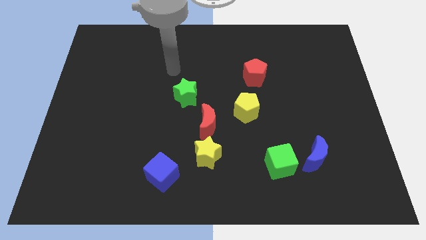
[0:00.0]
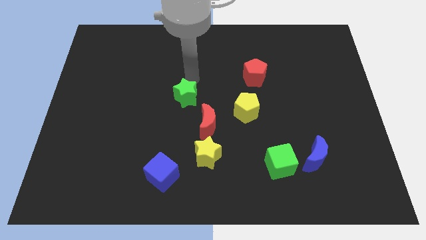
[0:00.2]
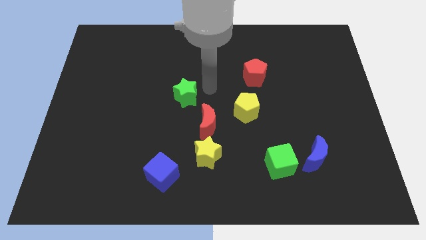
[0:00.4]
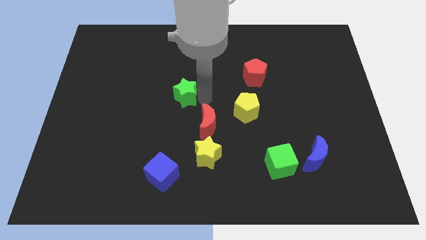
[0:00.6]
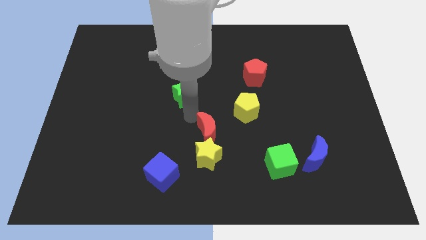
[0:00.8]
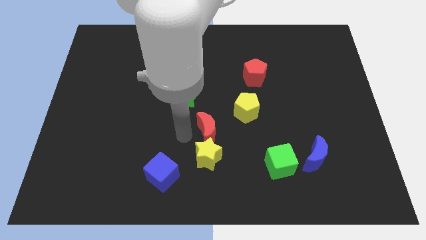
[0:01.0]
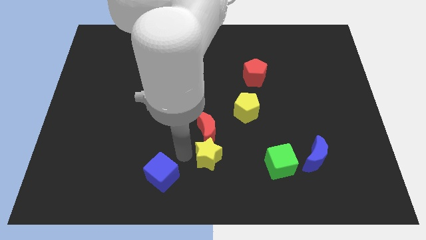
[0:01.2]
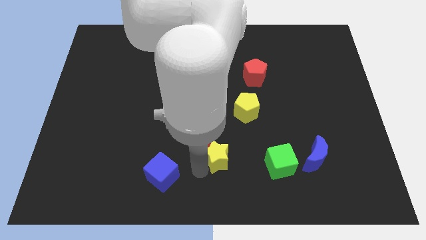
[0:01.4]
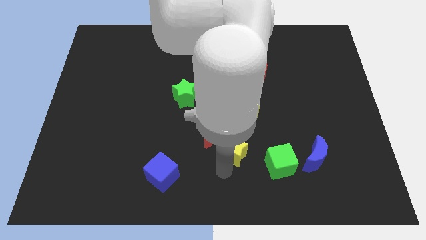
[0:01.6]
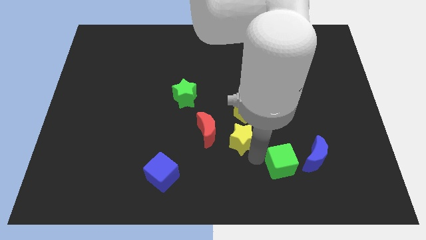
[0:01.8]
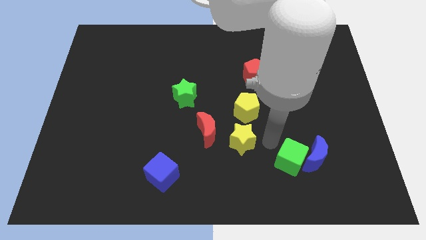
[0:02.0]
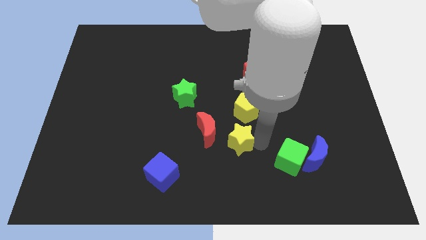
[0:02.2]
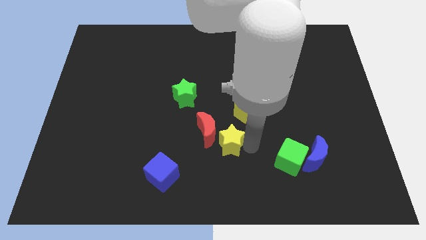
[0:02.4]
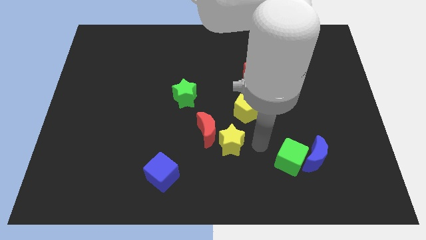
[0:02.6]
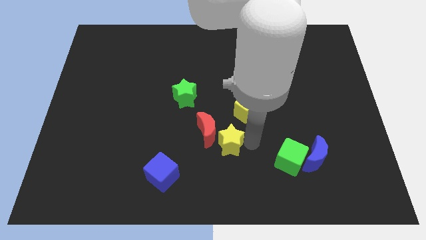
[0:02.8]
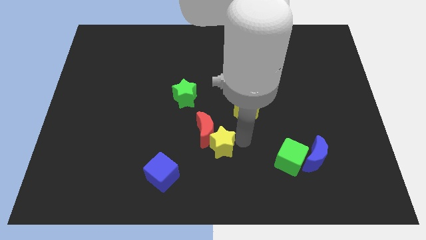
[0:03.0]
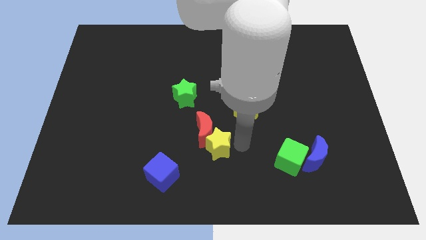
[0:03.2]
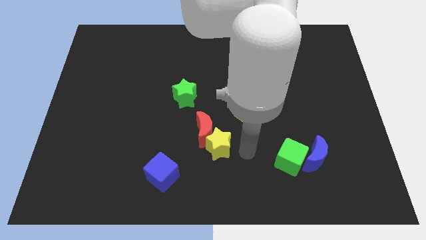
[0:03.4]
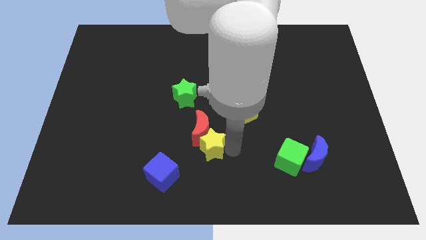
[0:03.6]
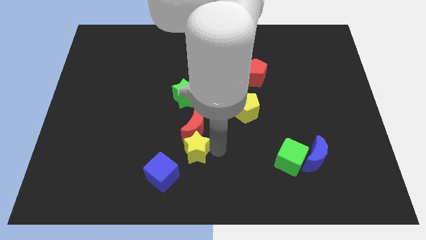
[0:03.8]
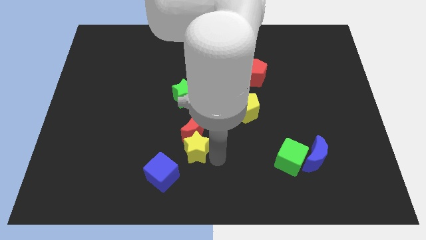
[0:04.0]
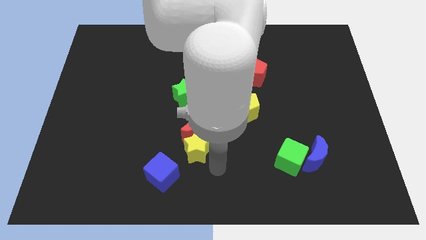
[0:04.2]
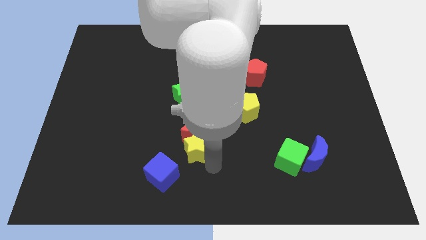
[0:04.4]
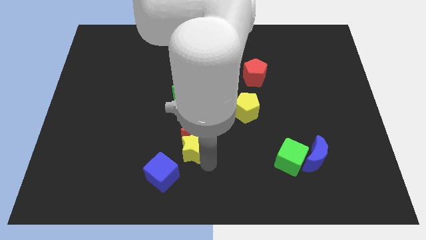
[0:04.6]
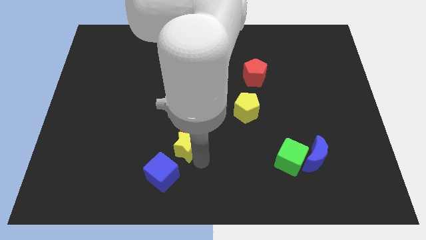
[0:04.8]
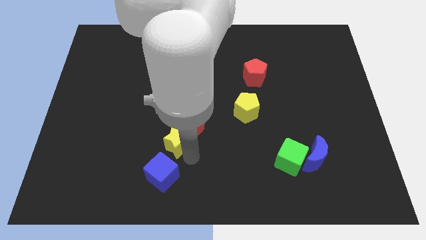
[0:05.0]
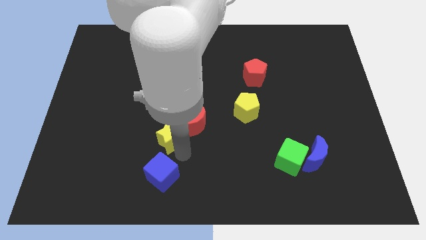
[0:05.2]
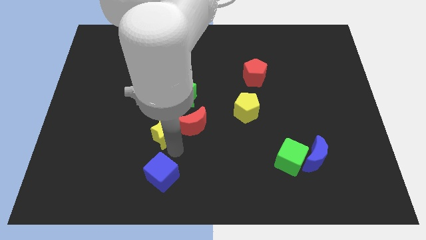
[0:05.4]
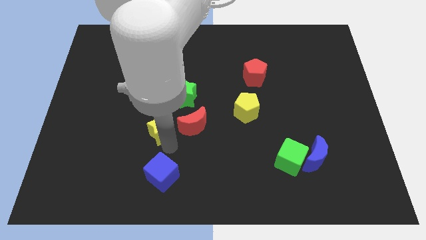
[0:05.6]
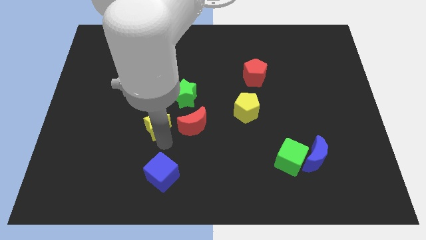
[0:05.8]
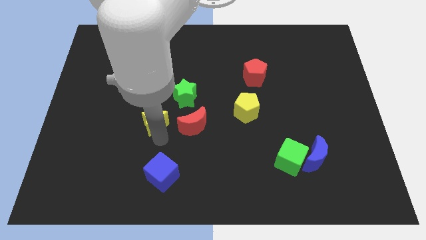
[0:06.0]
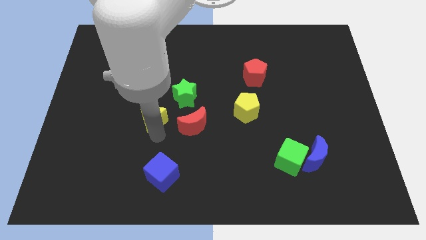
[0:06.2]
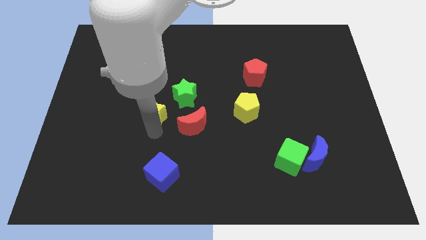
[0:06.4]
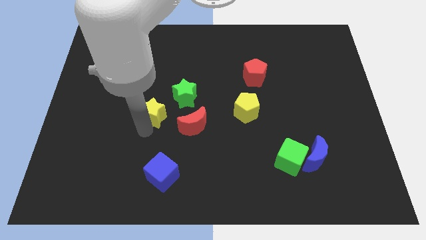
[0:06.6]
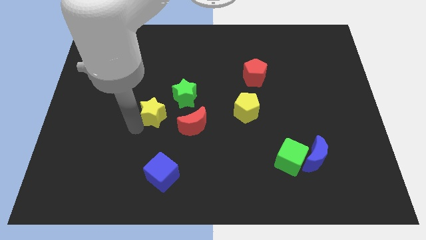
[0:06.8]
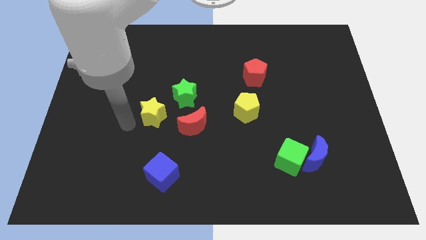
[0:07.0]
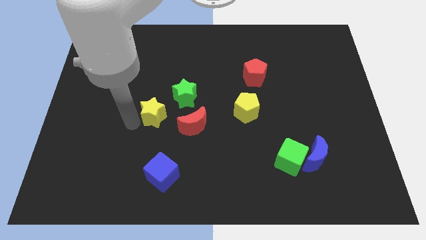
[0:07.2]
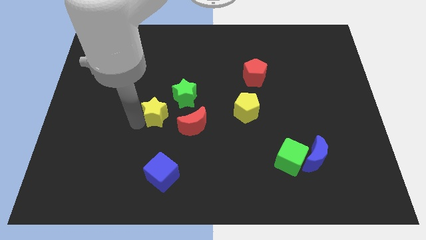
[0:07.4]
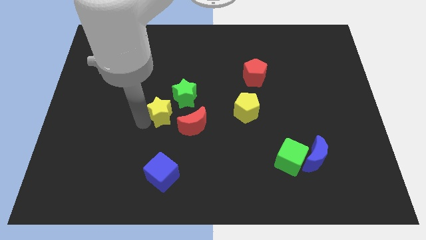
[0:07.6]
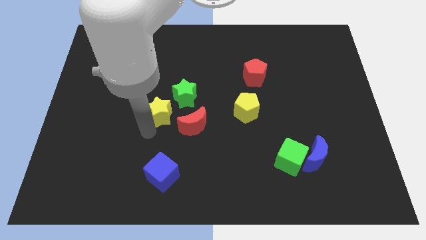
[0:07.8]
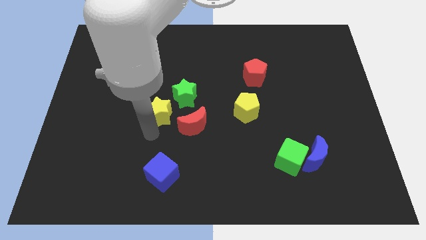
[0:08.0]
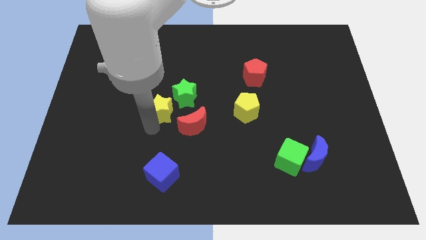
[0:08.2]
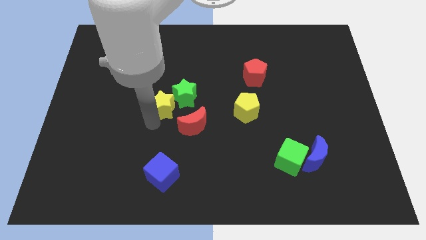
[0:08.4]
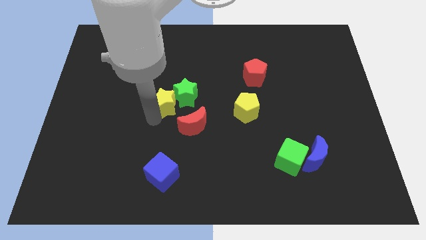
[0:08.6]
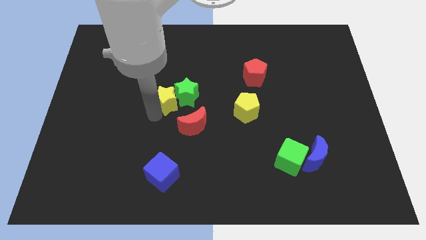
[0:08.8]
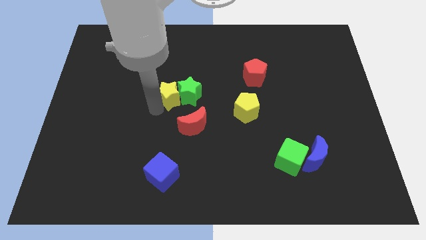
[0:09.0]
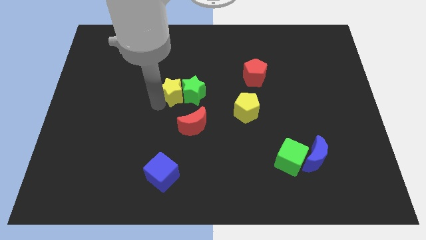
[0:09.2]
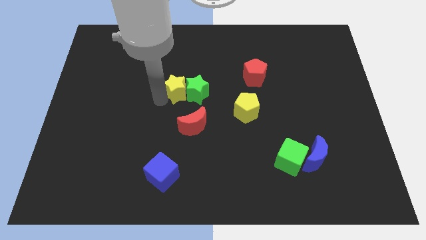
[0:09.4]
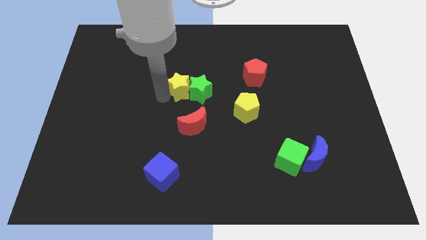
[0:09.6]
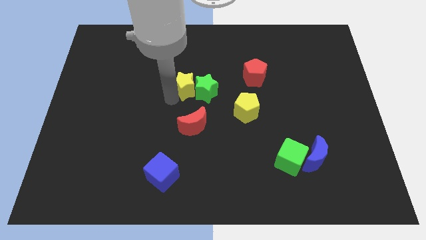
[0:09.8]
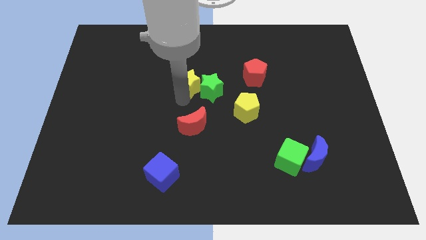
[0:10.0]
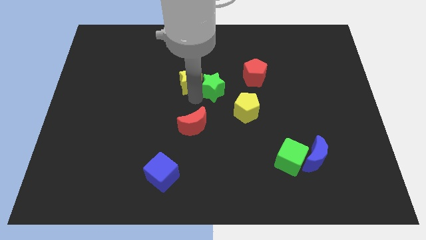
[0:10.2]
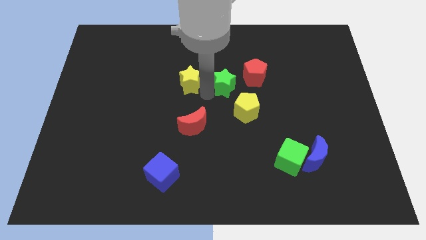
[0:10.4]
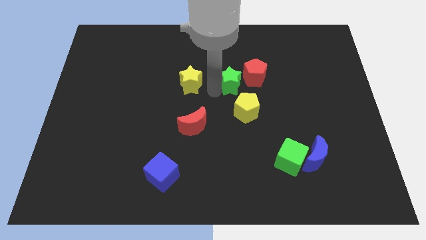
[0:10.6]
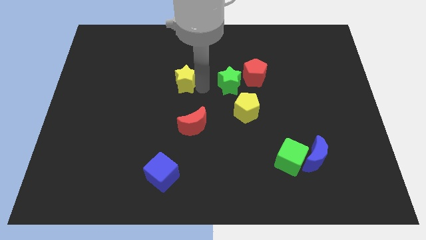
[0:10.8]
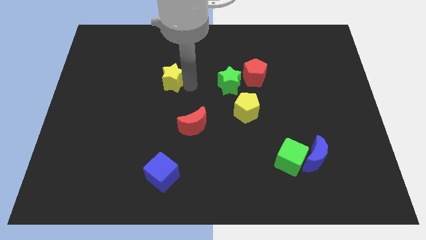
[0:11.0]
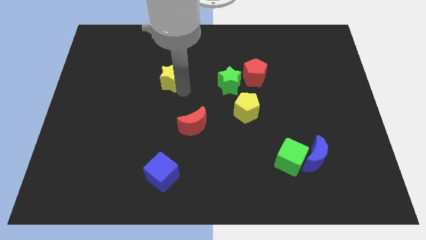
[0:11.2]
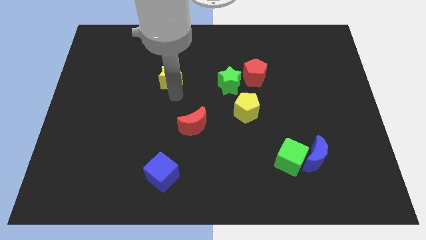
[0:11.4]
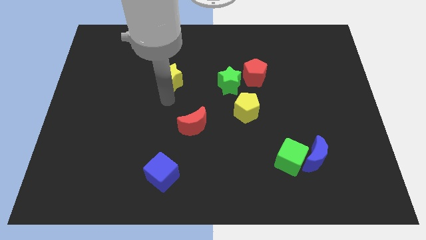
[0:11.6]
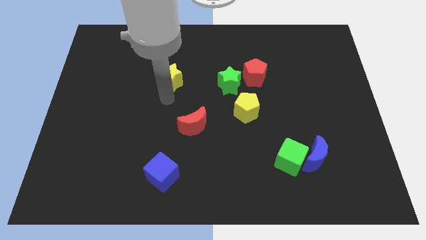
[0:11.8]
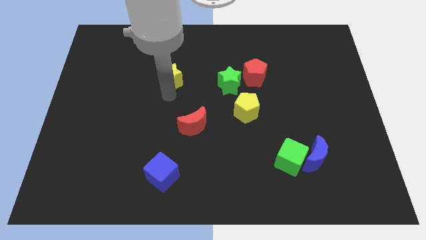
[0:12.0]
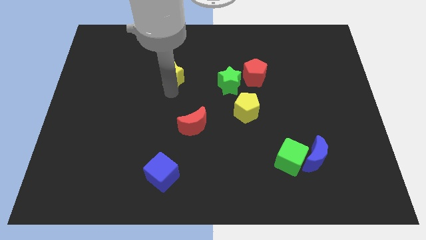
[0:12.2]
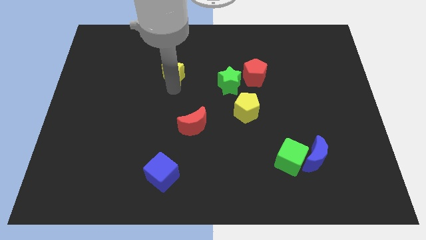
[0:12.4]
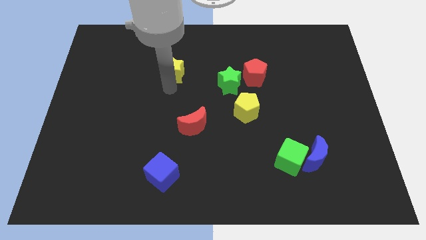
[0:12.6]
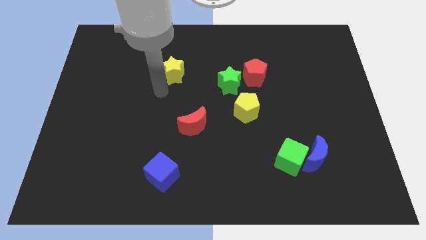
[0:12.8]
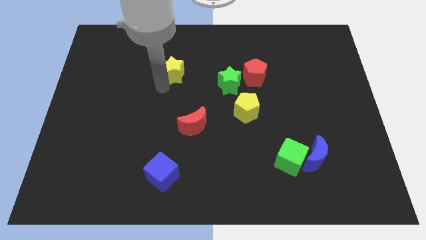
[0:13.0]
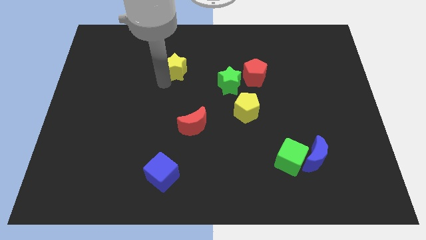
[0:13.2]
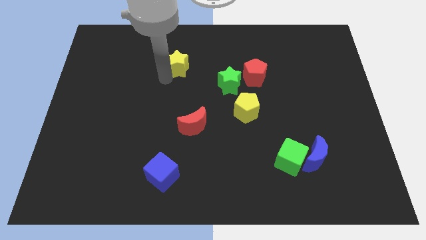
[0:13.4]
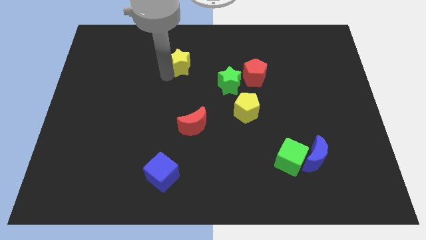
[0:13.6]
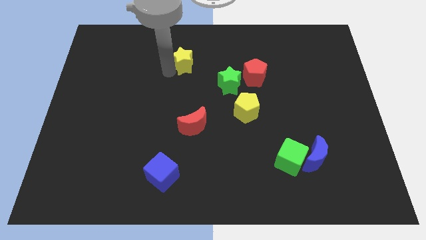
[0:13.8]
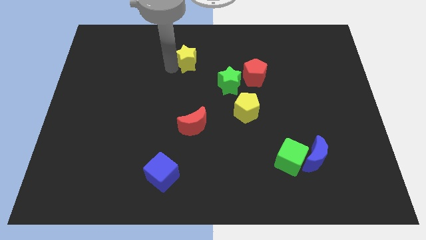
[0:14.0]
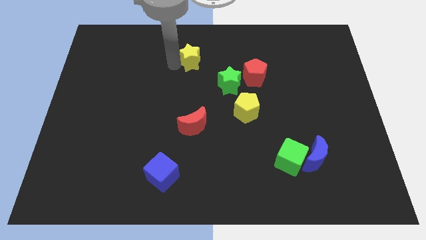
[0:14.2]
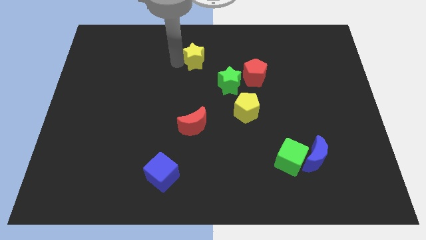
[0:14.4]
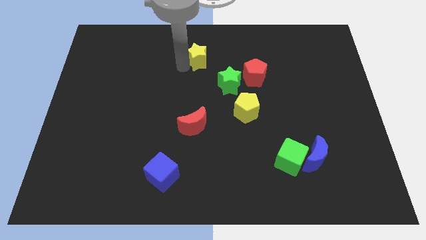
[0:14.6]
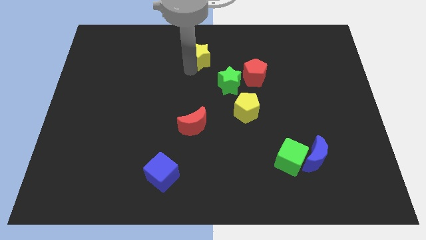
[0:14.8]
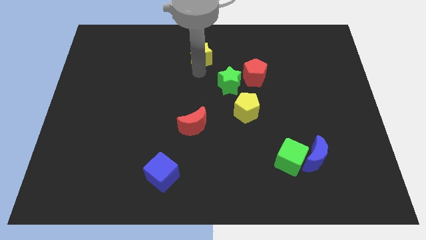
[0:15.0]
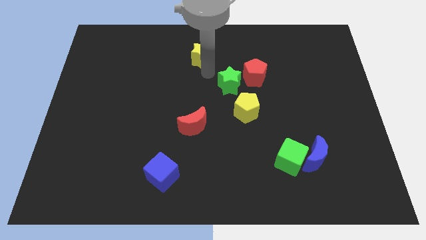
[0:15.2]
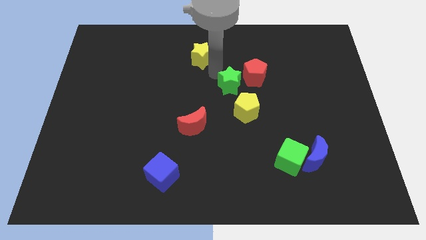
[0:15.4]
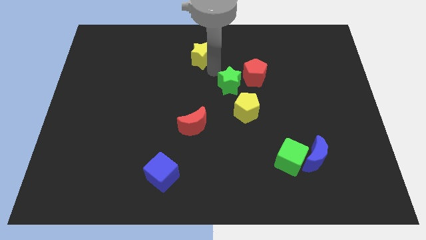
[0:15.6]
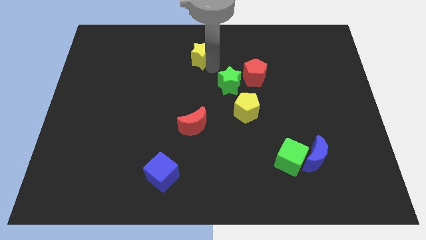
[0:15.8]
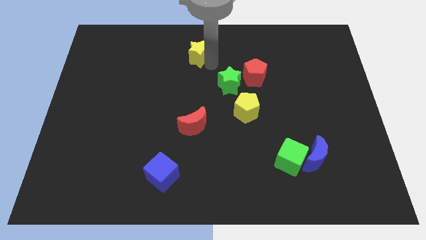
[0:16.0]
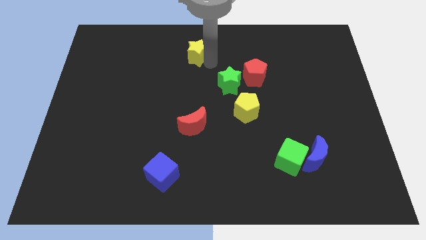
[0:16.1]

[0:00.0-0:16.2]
move the yellow star to the towards your base
